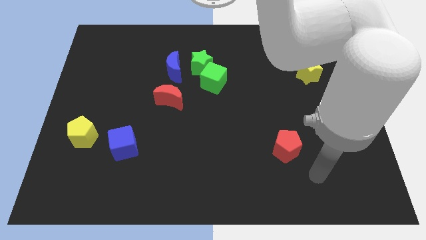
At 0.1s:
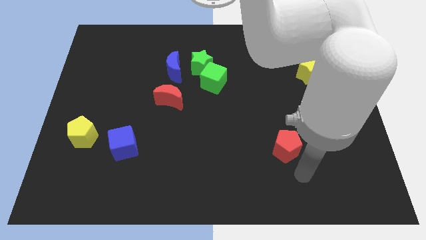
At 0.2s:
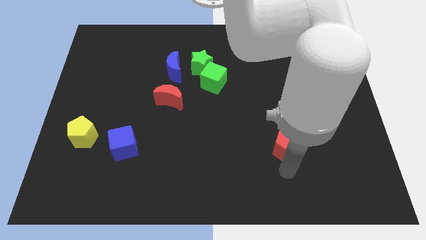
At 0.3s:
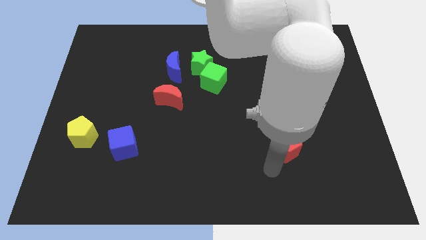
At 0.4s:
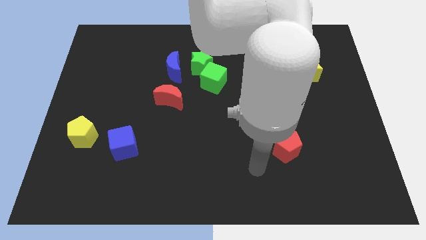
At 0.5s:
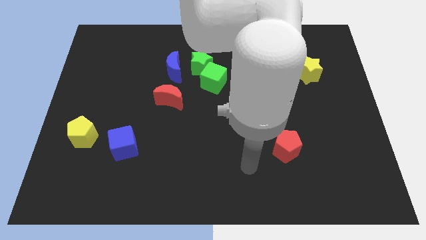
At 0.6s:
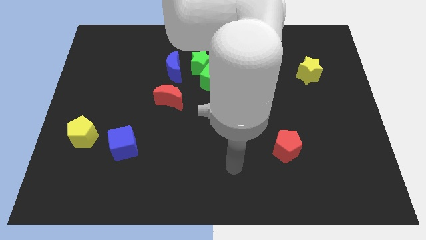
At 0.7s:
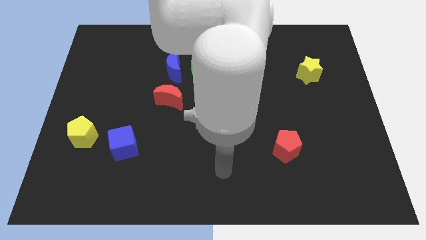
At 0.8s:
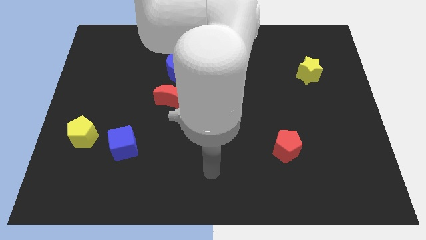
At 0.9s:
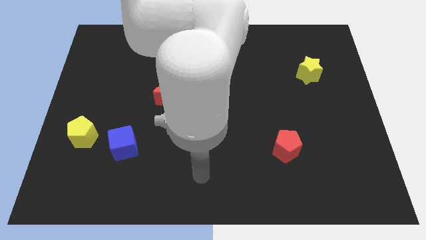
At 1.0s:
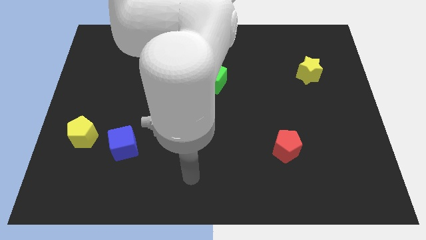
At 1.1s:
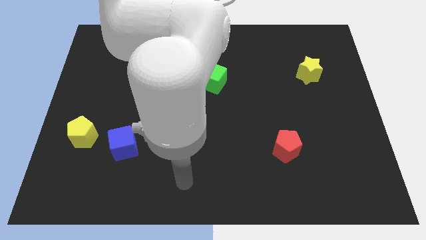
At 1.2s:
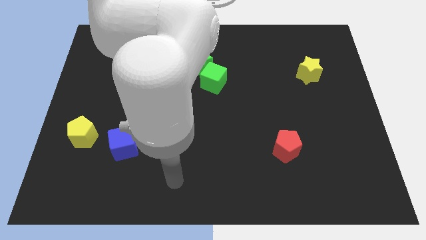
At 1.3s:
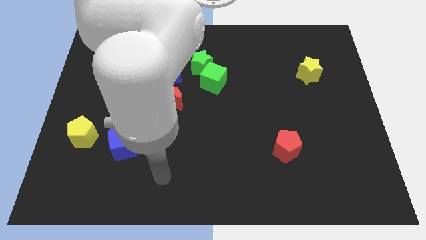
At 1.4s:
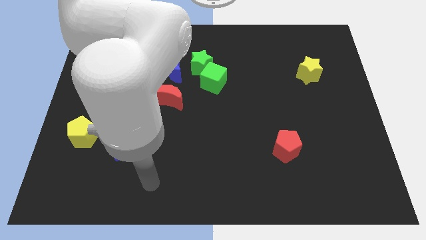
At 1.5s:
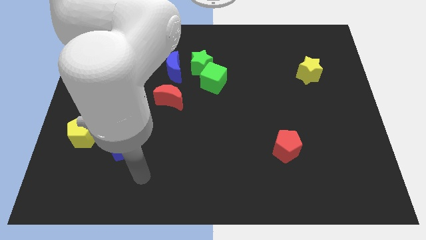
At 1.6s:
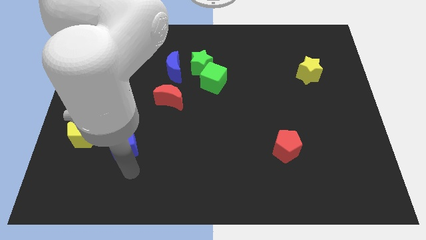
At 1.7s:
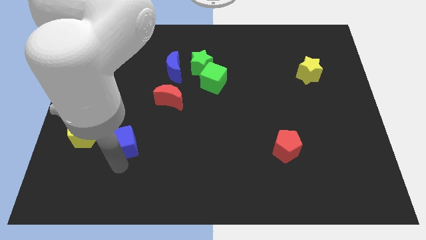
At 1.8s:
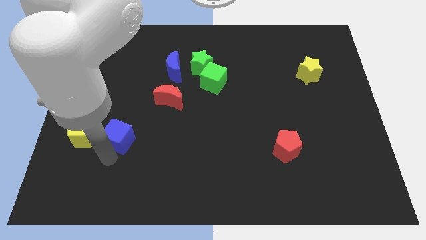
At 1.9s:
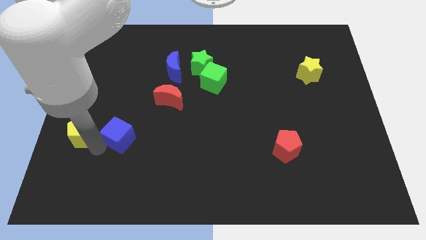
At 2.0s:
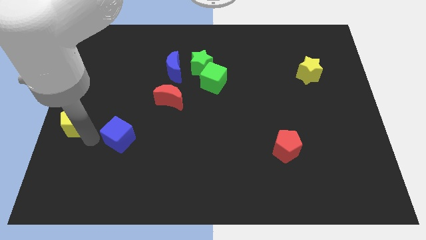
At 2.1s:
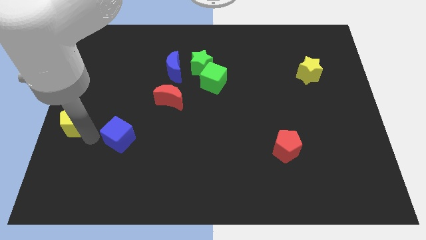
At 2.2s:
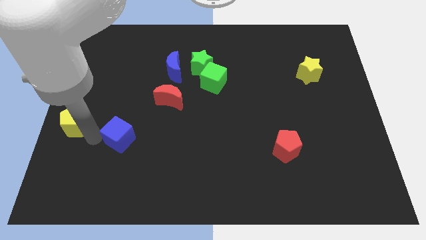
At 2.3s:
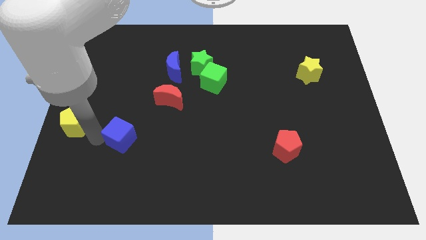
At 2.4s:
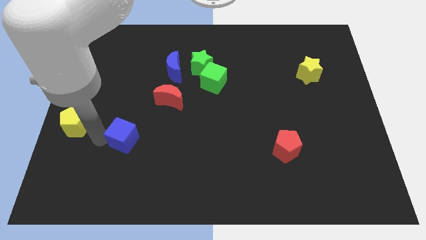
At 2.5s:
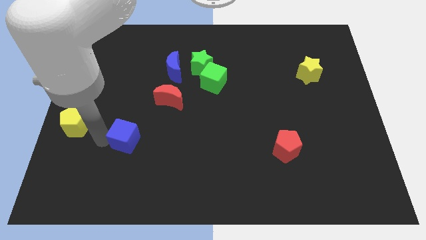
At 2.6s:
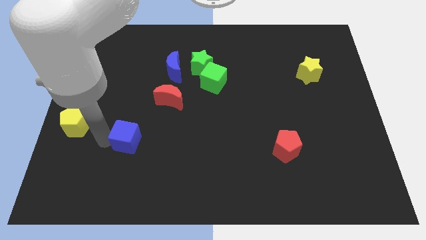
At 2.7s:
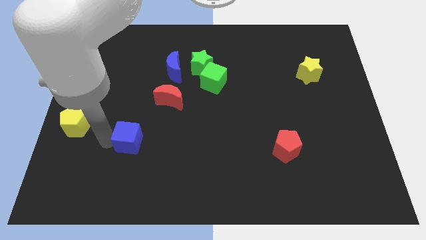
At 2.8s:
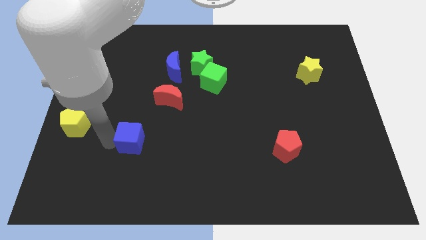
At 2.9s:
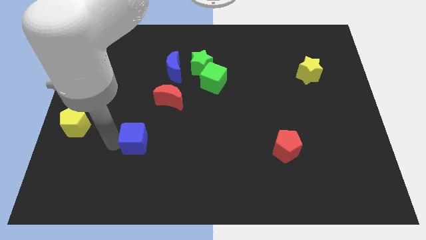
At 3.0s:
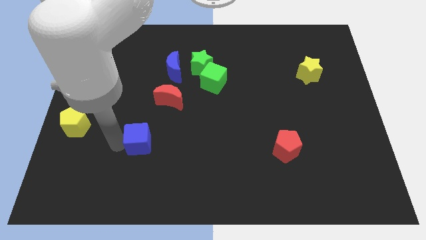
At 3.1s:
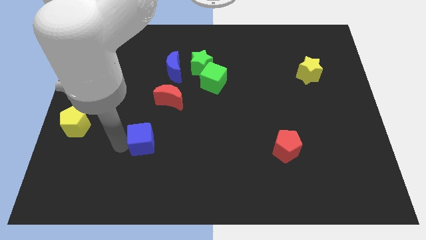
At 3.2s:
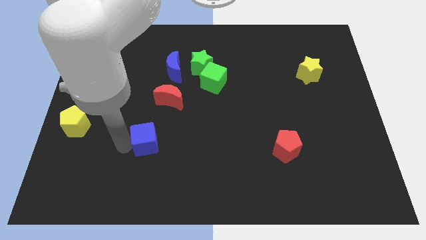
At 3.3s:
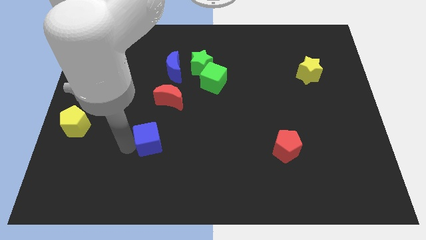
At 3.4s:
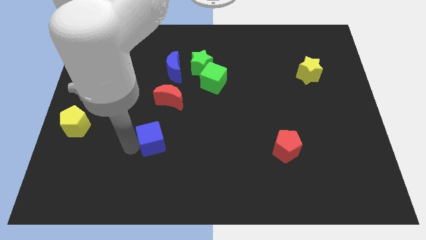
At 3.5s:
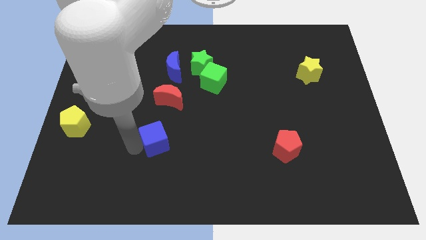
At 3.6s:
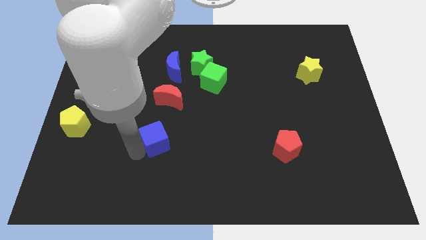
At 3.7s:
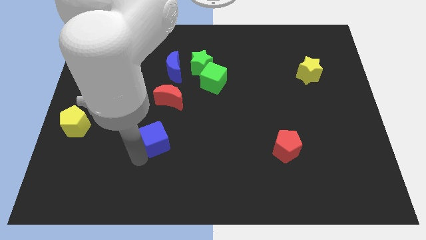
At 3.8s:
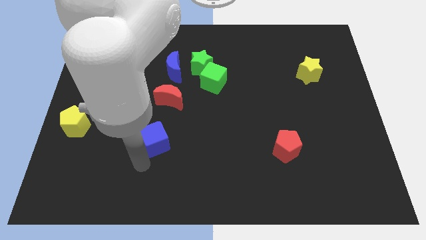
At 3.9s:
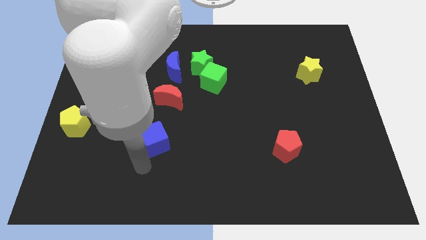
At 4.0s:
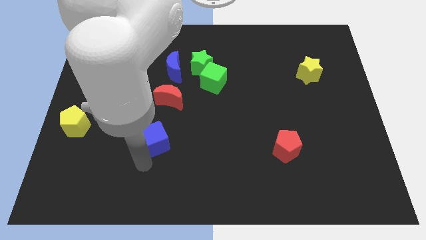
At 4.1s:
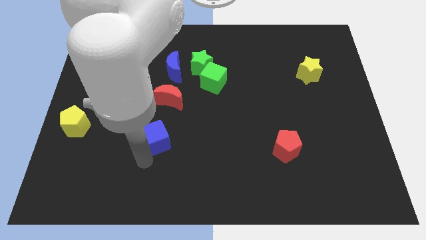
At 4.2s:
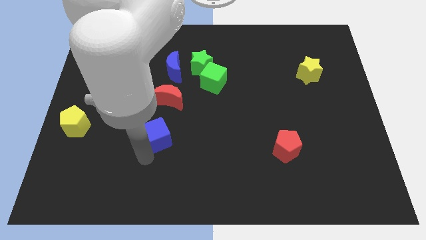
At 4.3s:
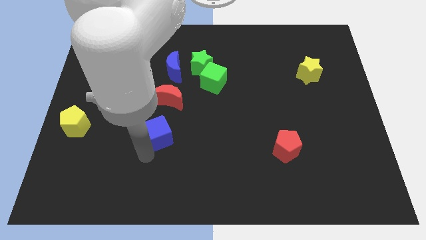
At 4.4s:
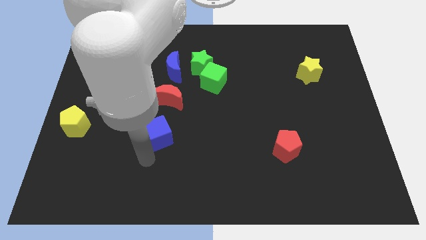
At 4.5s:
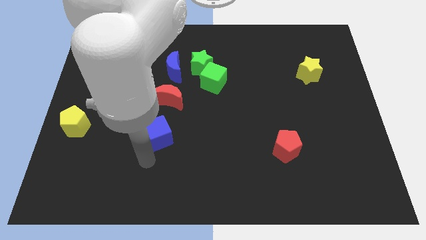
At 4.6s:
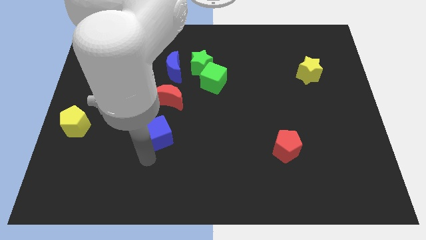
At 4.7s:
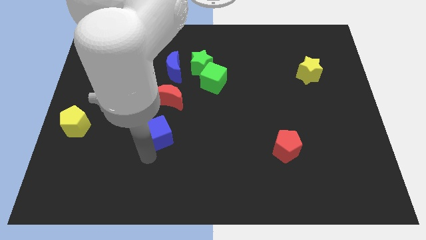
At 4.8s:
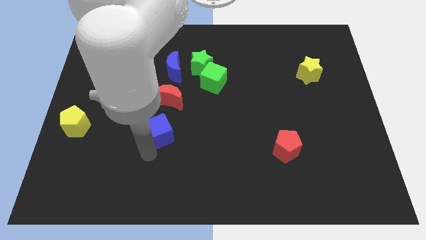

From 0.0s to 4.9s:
slide the blue cube slightly diagonally upwards and to the right

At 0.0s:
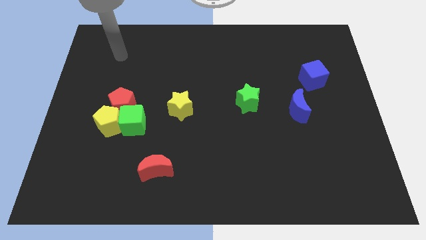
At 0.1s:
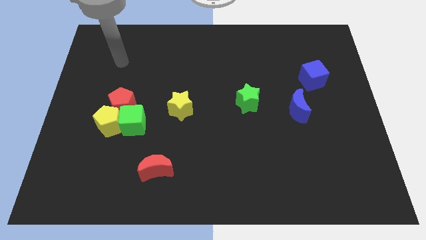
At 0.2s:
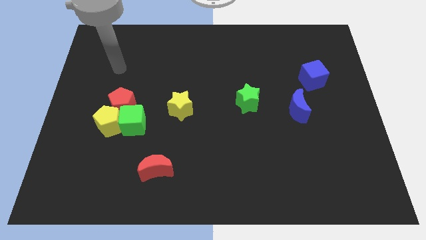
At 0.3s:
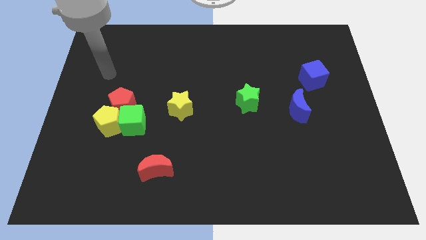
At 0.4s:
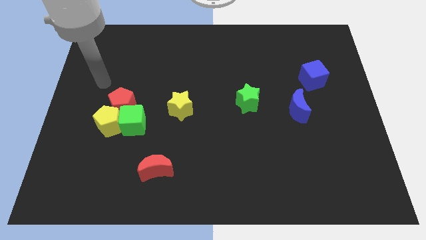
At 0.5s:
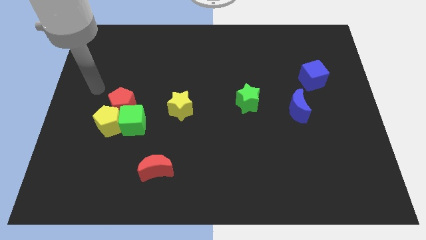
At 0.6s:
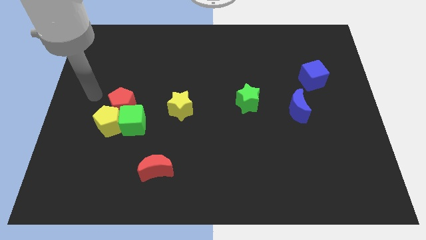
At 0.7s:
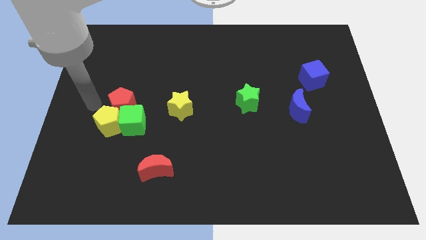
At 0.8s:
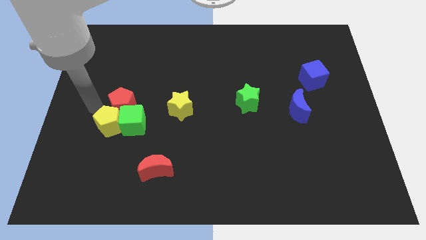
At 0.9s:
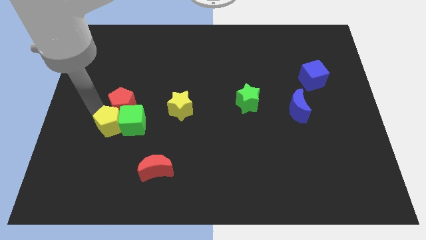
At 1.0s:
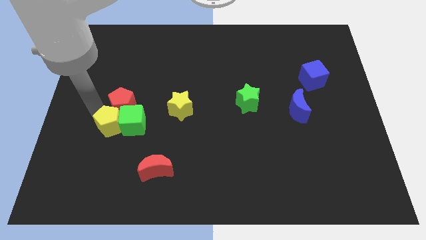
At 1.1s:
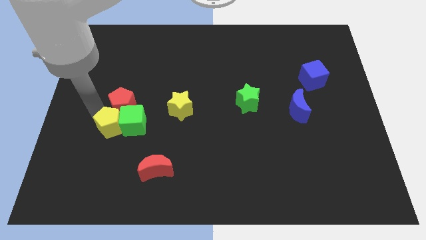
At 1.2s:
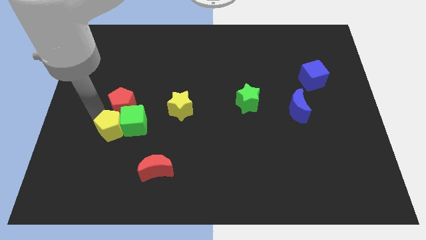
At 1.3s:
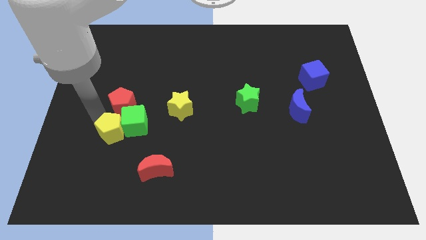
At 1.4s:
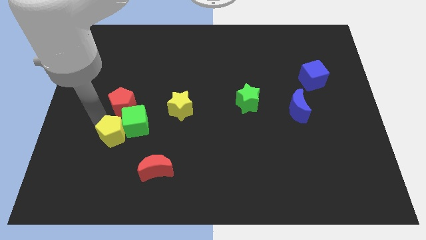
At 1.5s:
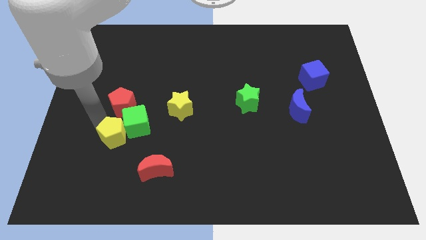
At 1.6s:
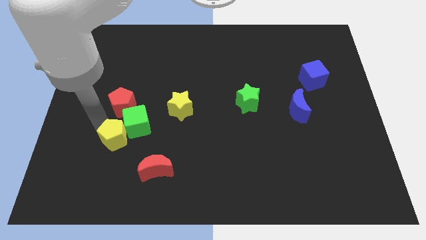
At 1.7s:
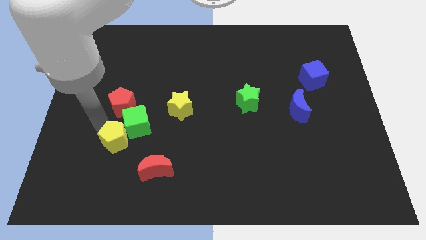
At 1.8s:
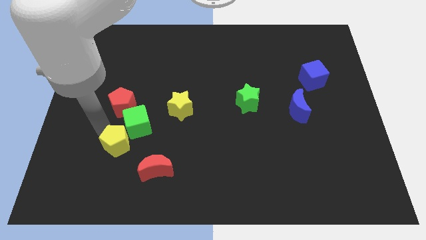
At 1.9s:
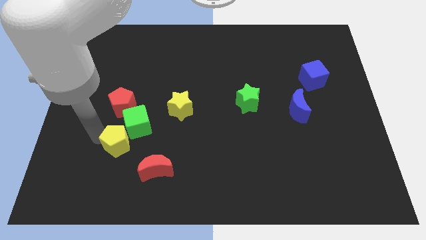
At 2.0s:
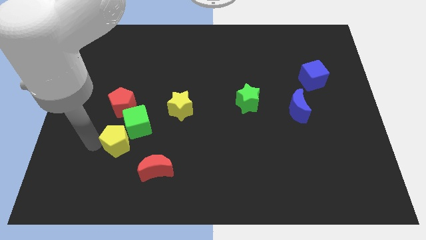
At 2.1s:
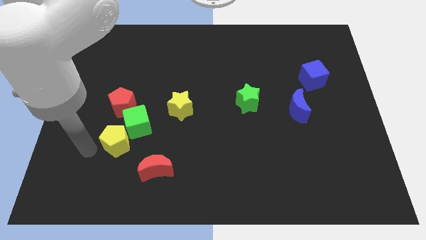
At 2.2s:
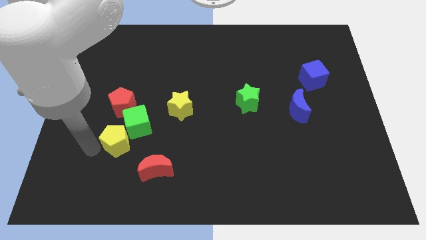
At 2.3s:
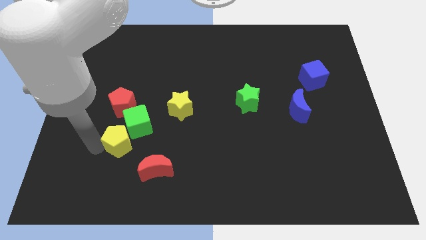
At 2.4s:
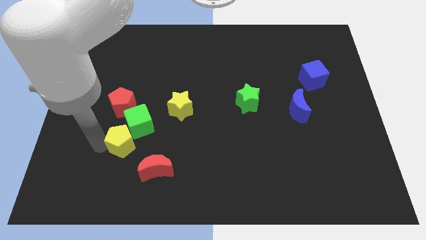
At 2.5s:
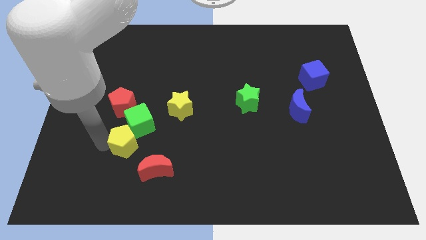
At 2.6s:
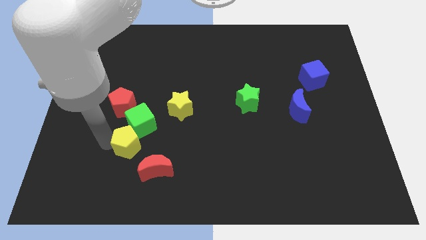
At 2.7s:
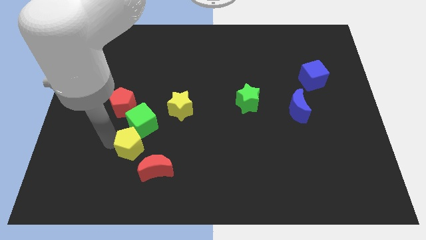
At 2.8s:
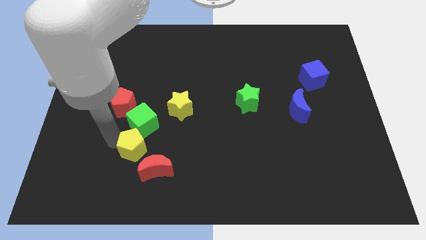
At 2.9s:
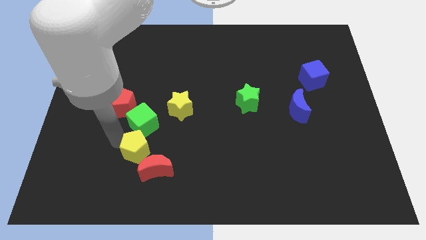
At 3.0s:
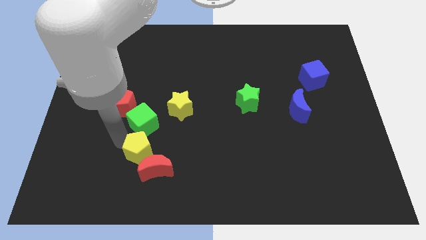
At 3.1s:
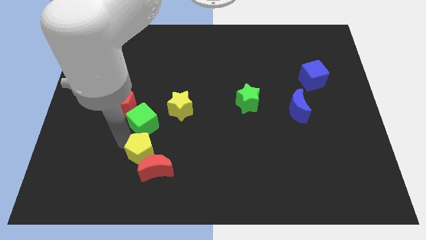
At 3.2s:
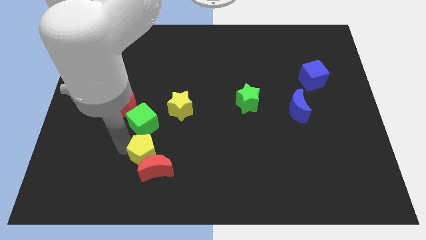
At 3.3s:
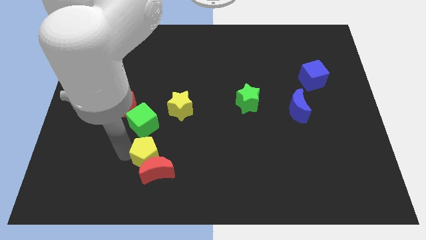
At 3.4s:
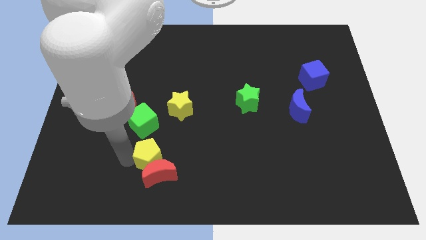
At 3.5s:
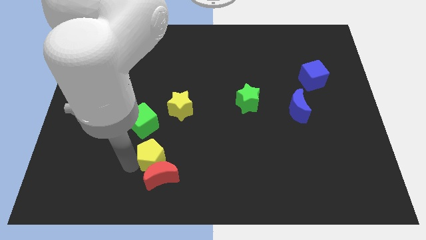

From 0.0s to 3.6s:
slide the yellow pentagon a bit to the right
